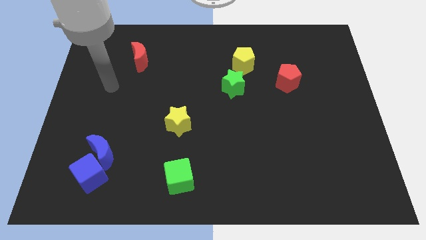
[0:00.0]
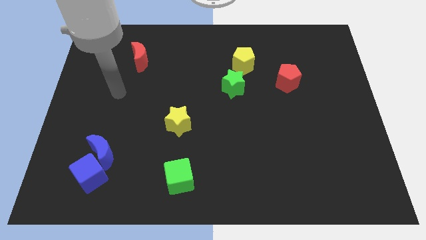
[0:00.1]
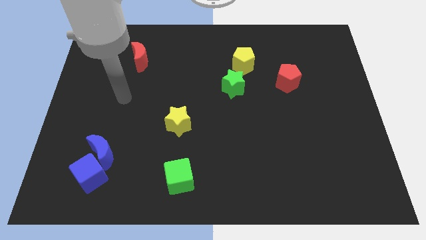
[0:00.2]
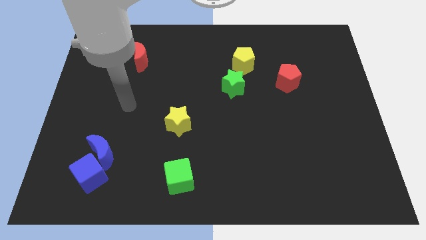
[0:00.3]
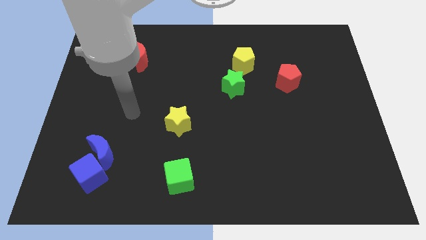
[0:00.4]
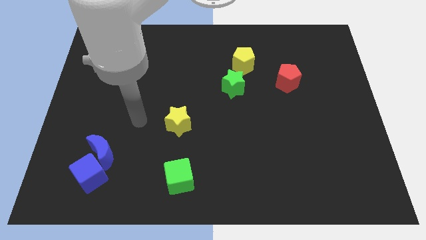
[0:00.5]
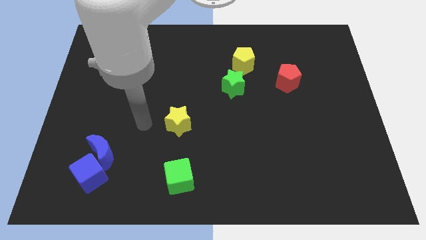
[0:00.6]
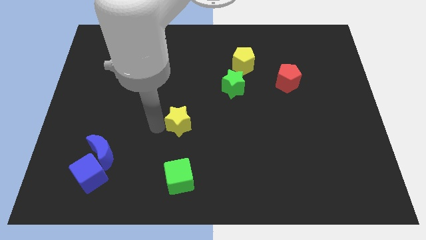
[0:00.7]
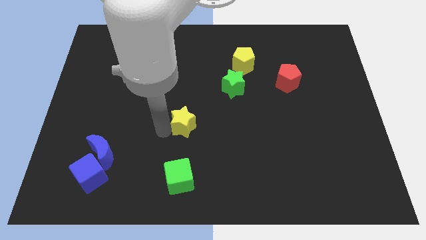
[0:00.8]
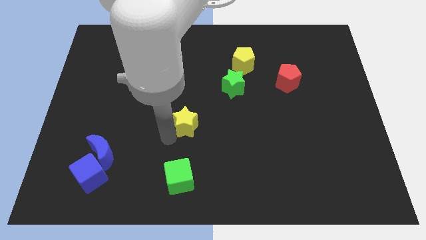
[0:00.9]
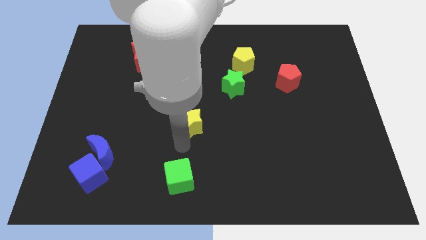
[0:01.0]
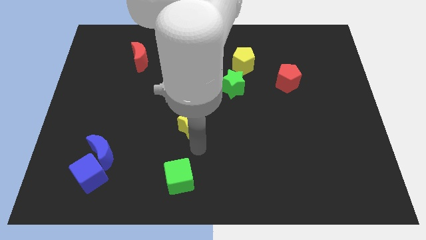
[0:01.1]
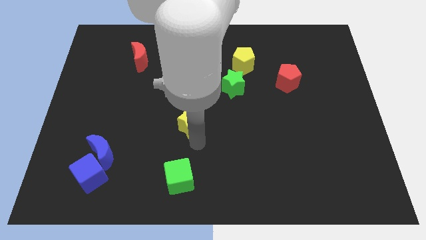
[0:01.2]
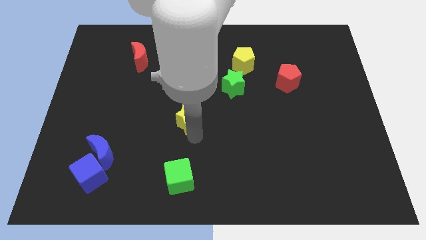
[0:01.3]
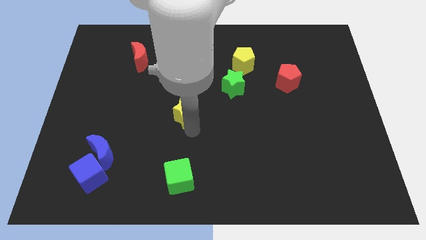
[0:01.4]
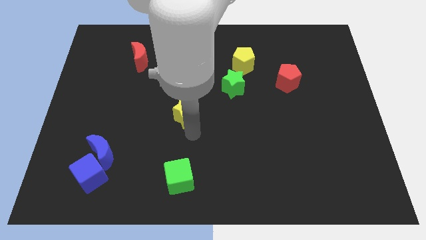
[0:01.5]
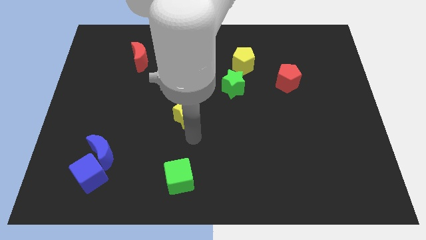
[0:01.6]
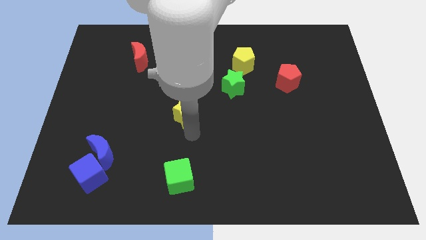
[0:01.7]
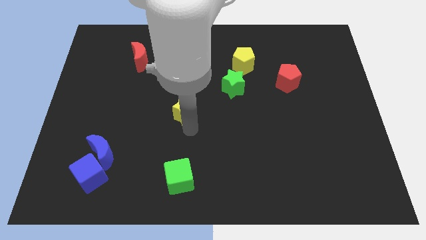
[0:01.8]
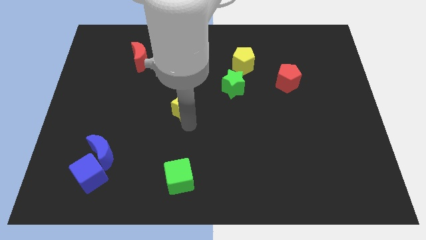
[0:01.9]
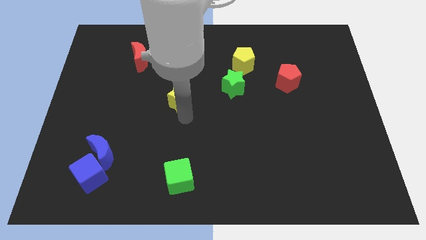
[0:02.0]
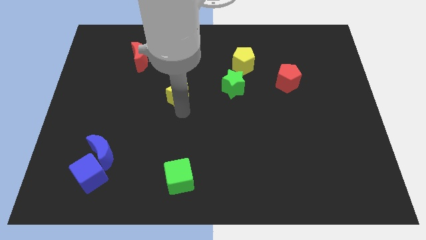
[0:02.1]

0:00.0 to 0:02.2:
slightly push the yellow star upwards

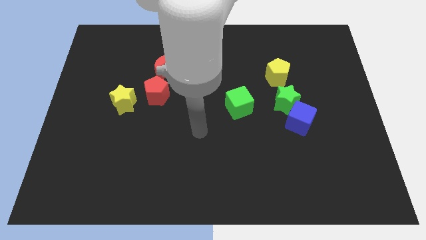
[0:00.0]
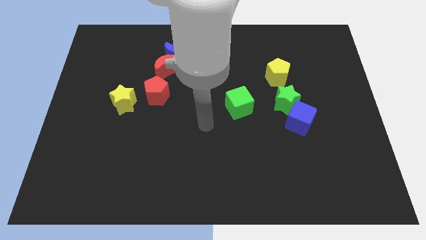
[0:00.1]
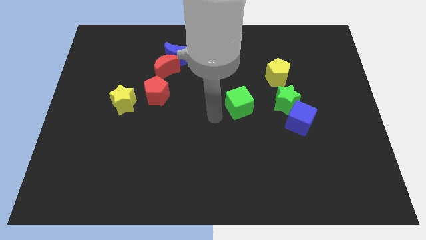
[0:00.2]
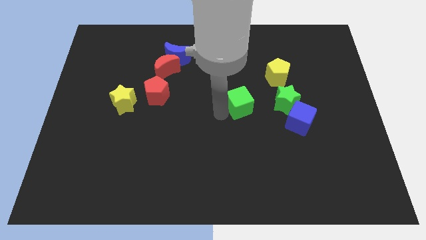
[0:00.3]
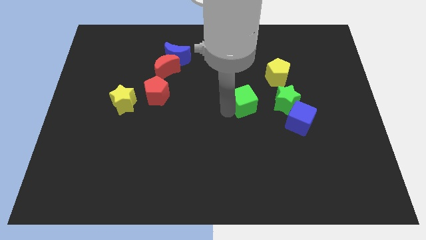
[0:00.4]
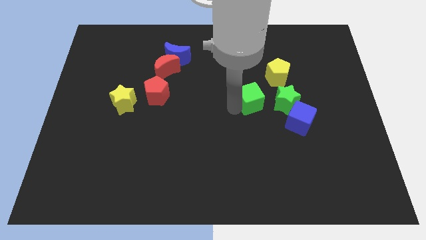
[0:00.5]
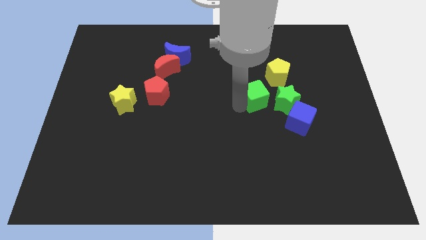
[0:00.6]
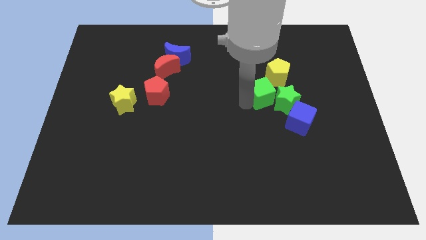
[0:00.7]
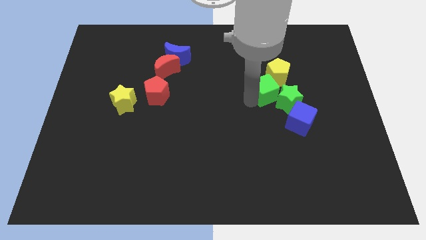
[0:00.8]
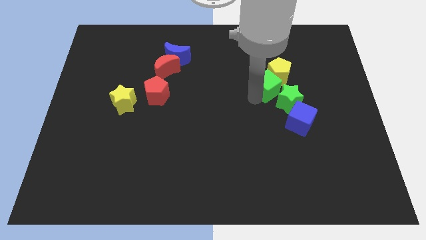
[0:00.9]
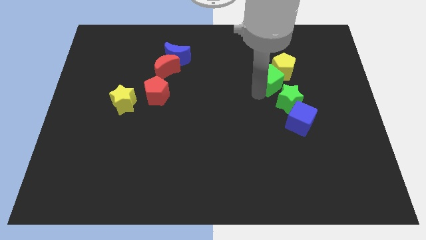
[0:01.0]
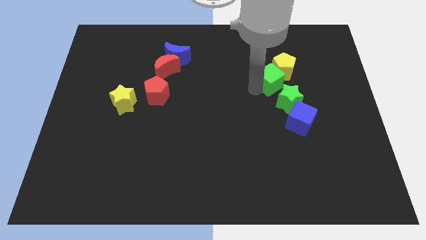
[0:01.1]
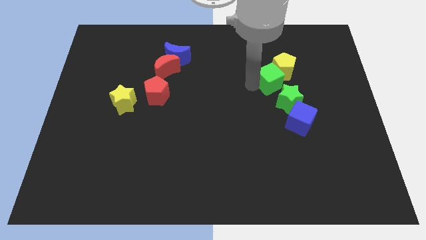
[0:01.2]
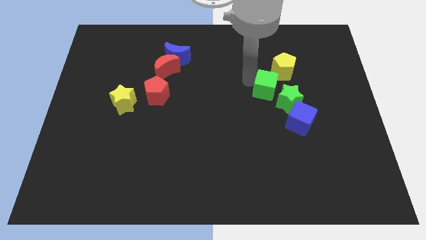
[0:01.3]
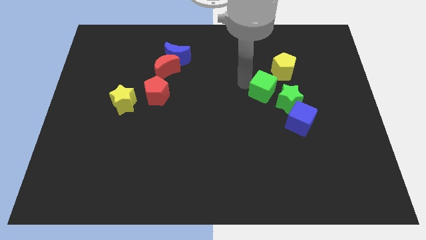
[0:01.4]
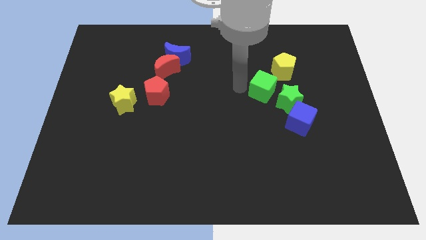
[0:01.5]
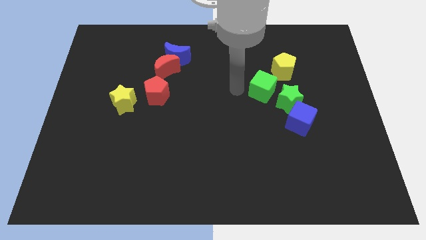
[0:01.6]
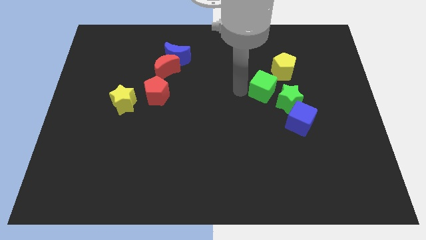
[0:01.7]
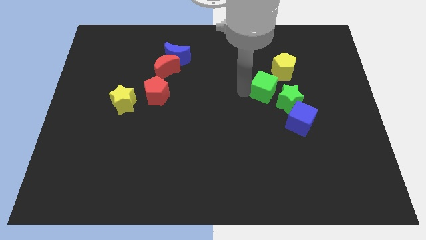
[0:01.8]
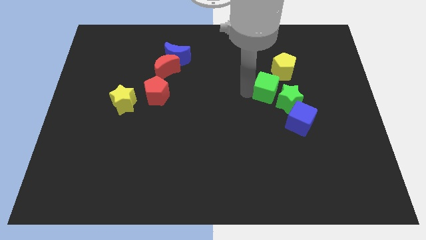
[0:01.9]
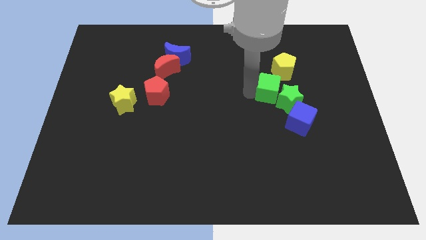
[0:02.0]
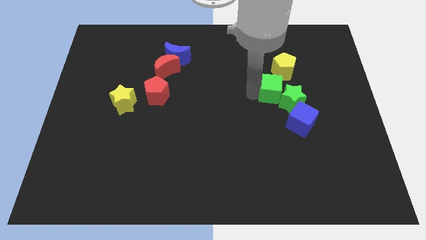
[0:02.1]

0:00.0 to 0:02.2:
move the green cube right somewhat

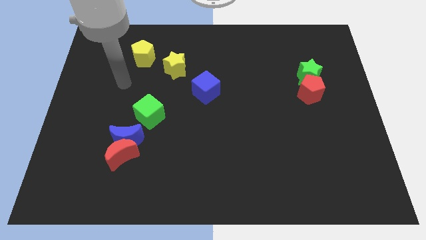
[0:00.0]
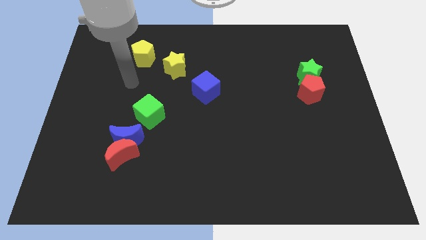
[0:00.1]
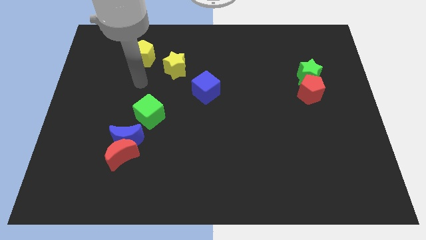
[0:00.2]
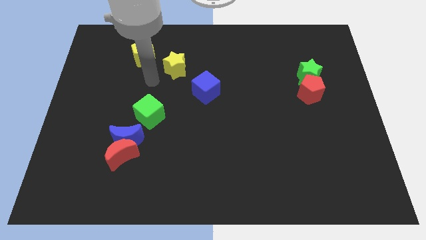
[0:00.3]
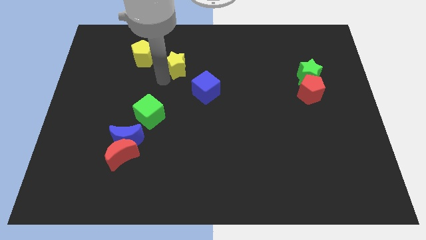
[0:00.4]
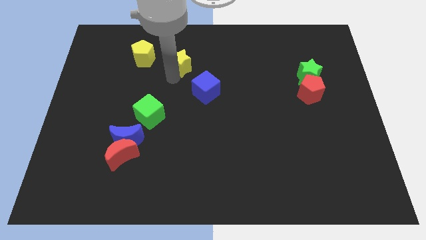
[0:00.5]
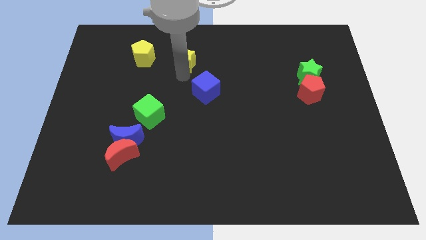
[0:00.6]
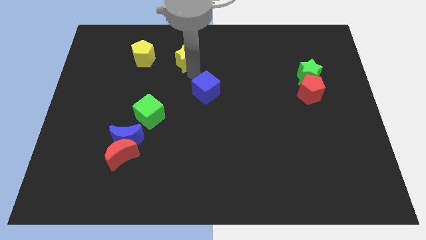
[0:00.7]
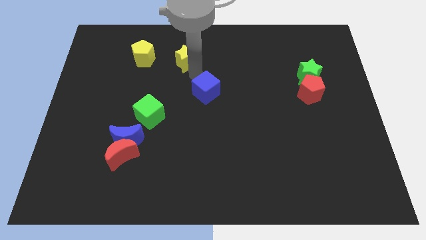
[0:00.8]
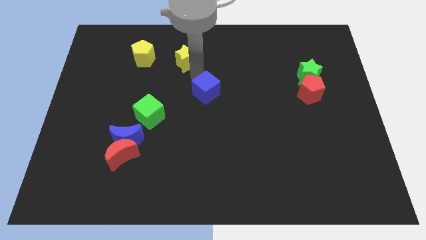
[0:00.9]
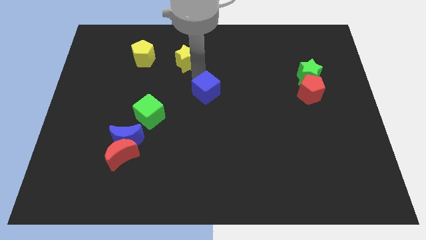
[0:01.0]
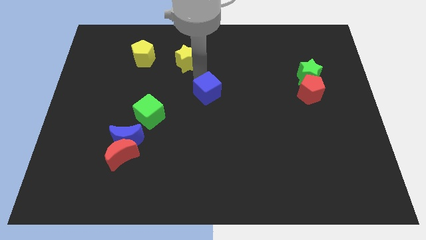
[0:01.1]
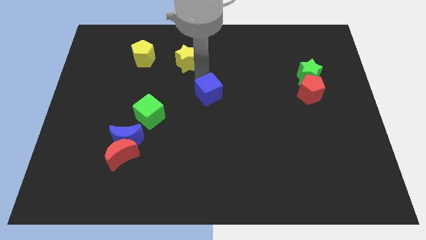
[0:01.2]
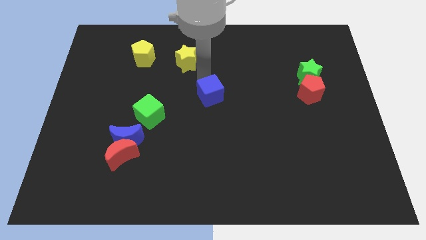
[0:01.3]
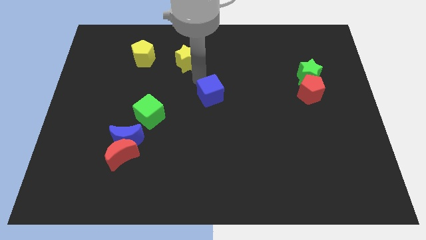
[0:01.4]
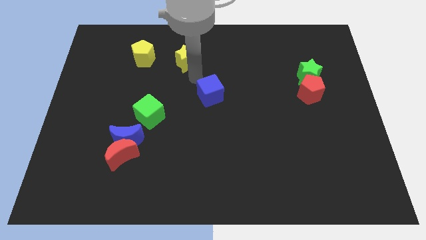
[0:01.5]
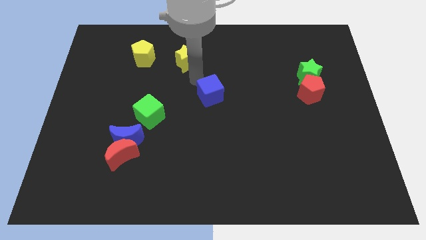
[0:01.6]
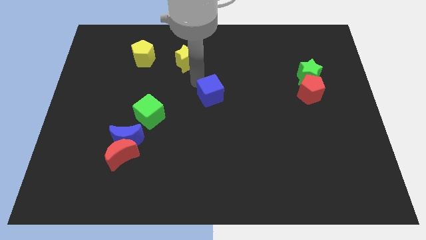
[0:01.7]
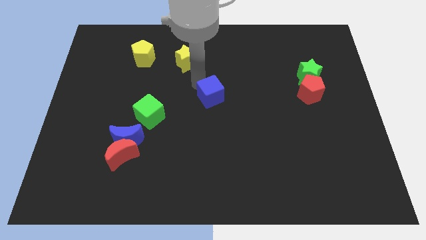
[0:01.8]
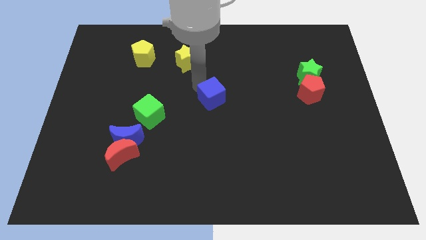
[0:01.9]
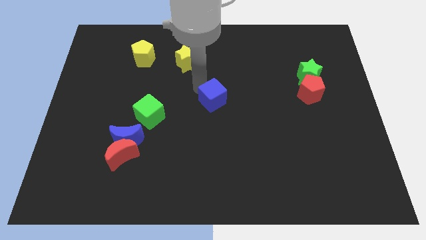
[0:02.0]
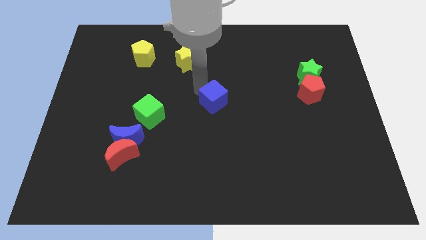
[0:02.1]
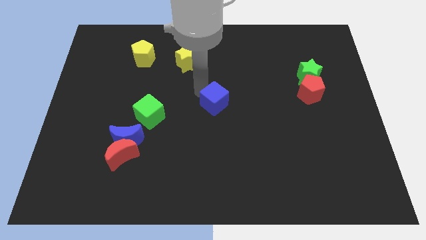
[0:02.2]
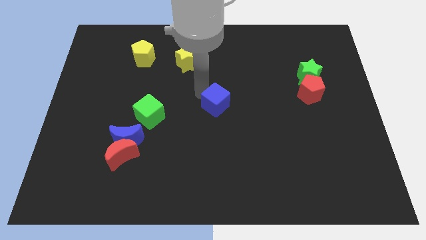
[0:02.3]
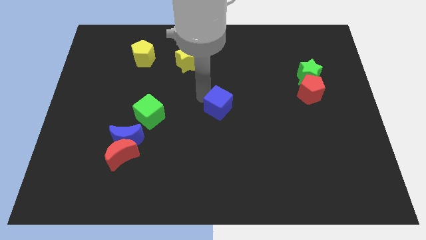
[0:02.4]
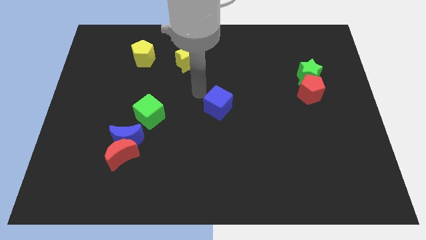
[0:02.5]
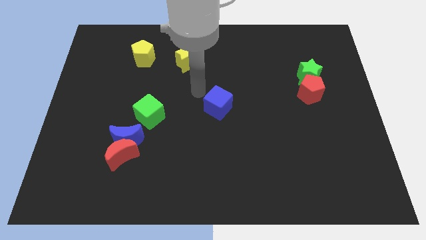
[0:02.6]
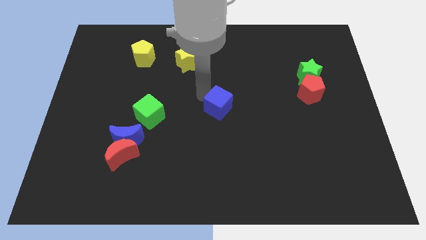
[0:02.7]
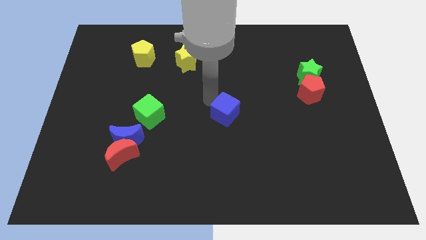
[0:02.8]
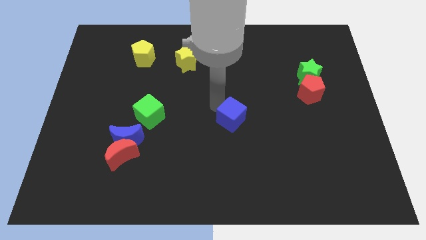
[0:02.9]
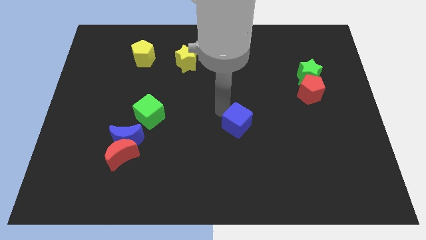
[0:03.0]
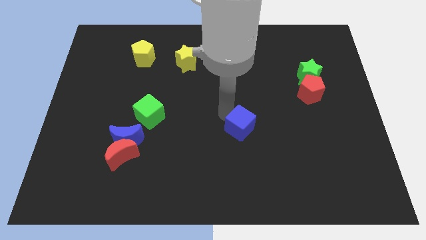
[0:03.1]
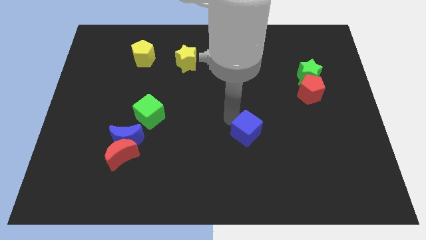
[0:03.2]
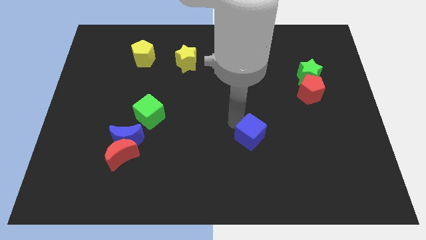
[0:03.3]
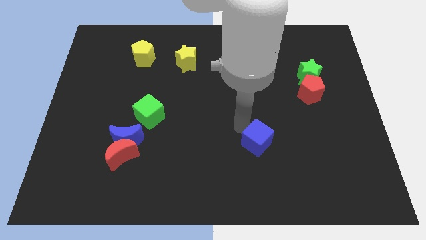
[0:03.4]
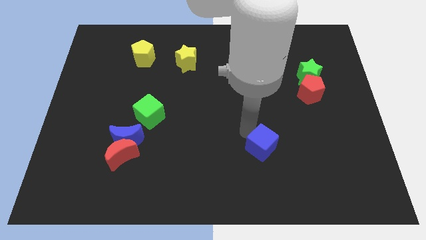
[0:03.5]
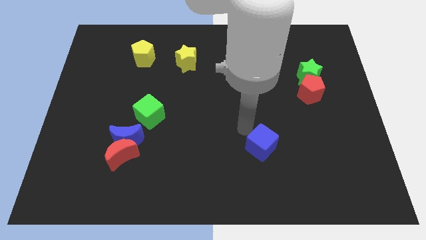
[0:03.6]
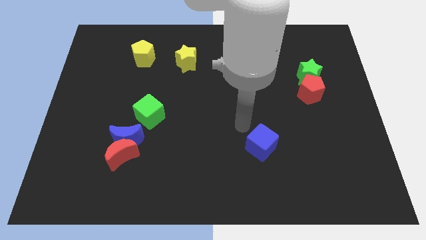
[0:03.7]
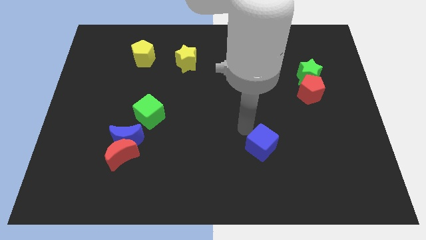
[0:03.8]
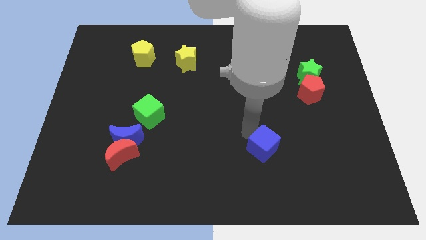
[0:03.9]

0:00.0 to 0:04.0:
move the blue cube downwards and right diagonally
